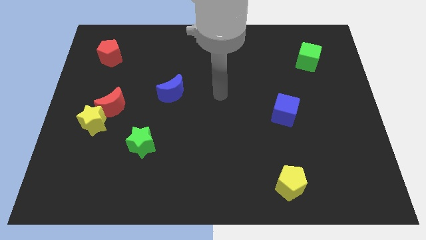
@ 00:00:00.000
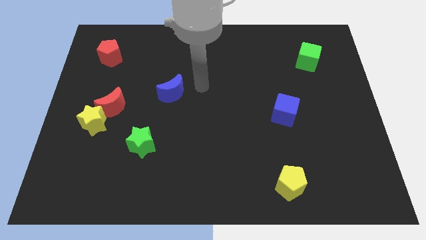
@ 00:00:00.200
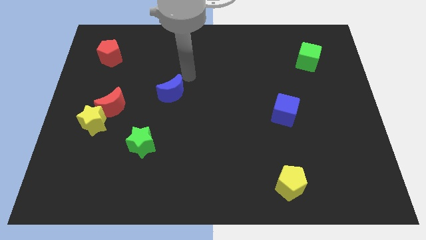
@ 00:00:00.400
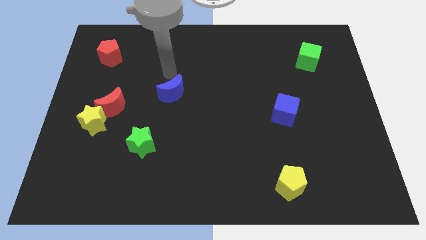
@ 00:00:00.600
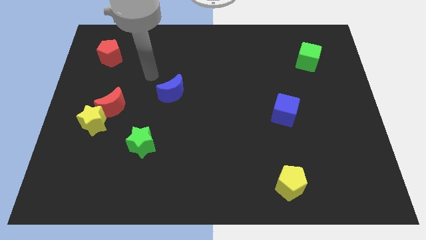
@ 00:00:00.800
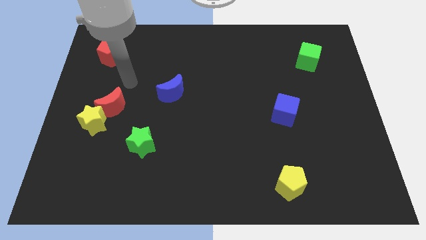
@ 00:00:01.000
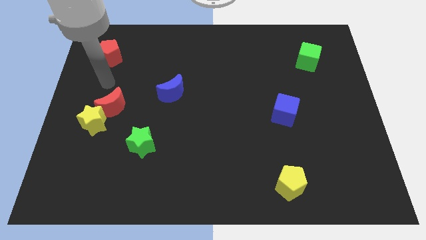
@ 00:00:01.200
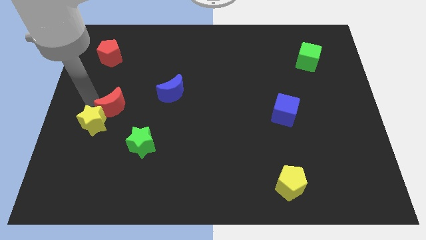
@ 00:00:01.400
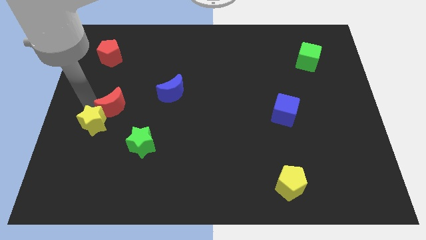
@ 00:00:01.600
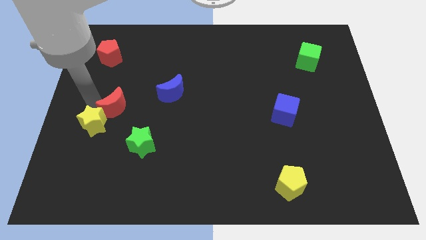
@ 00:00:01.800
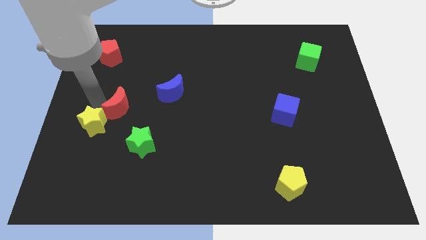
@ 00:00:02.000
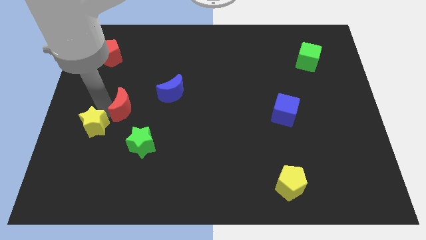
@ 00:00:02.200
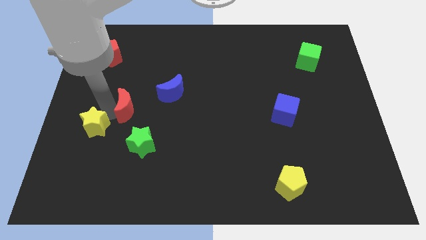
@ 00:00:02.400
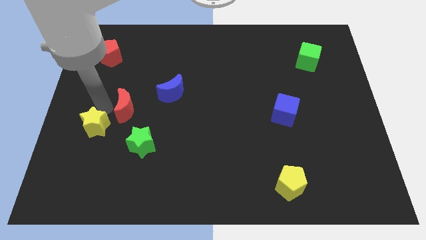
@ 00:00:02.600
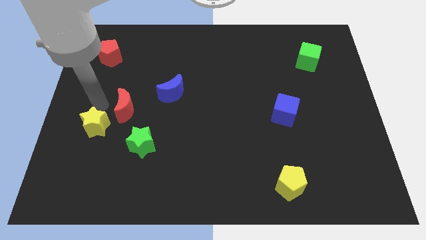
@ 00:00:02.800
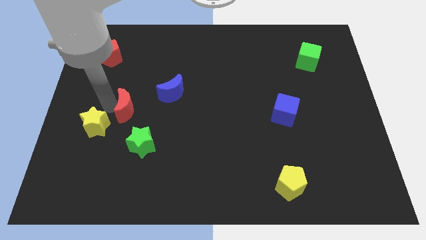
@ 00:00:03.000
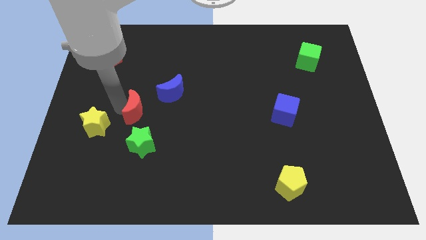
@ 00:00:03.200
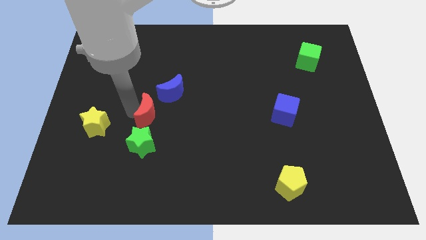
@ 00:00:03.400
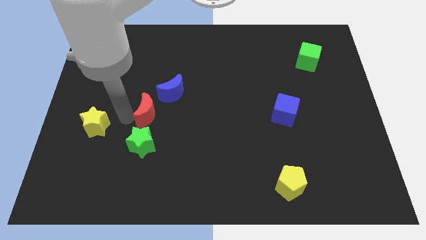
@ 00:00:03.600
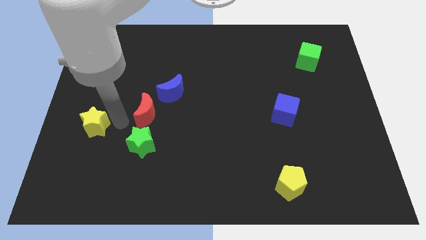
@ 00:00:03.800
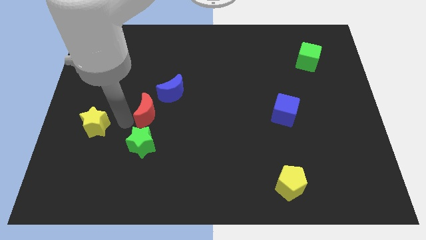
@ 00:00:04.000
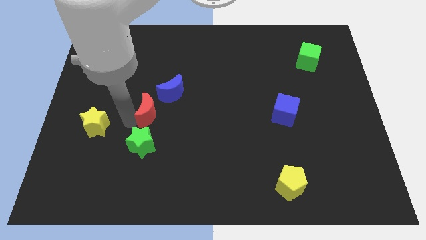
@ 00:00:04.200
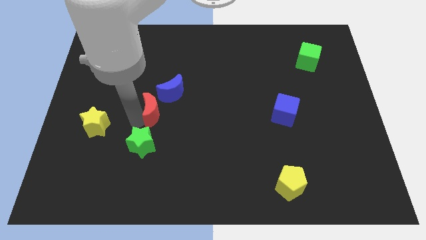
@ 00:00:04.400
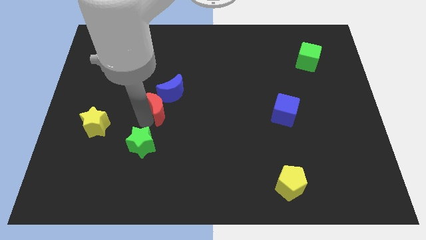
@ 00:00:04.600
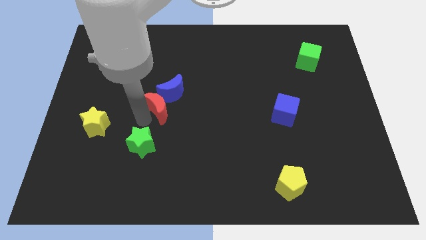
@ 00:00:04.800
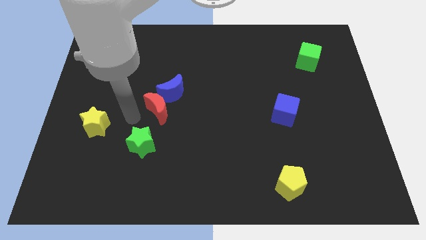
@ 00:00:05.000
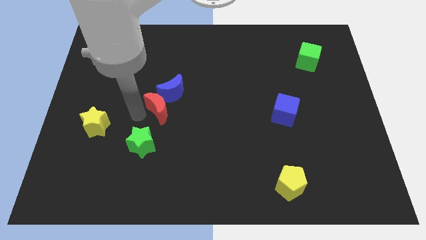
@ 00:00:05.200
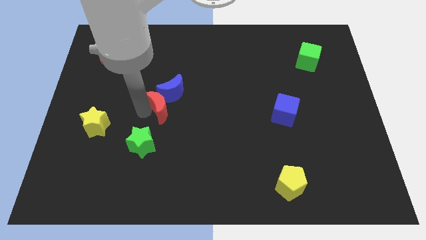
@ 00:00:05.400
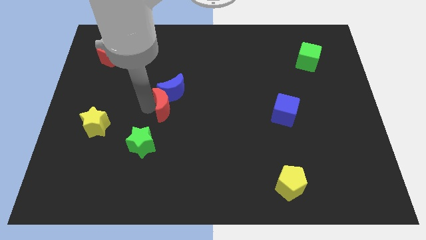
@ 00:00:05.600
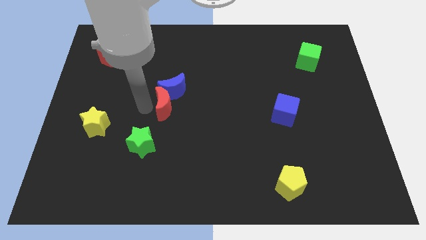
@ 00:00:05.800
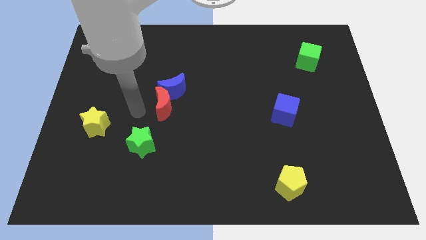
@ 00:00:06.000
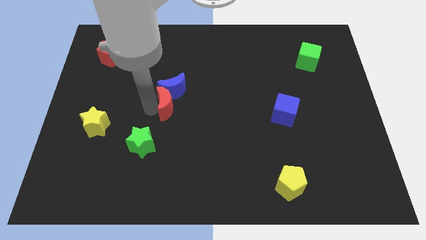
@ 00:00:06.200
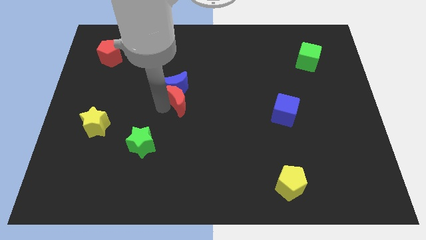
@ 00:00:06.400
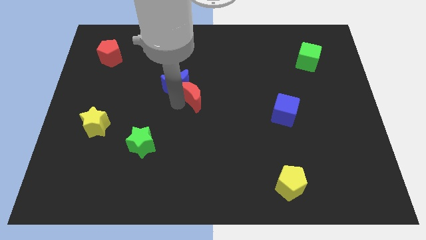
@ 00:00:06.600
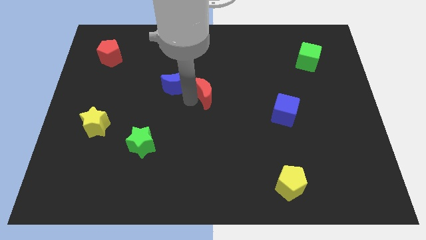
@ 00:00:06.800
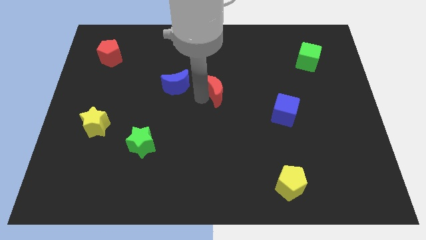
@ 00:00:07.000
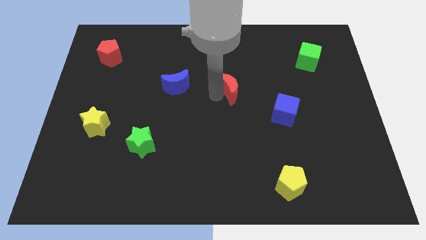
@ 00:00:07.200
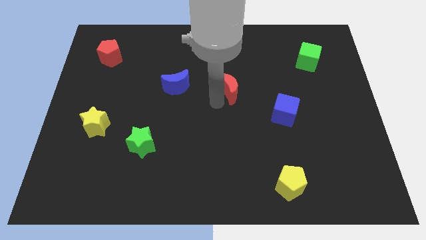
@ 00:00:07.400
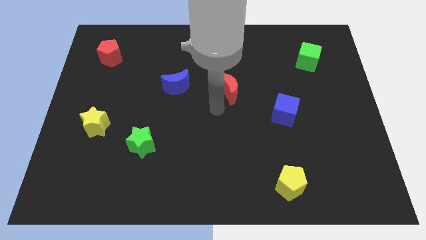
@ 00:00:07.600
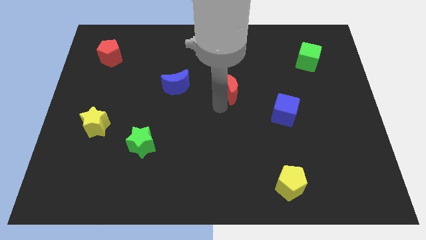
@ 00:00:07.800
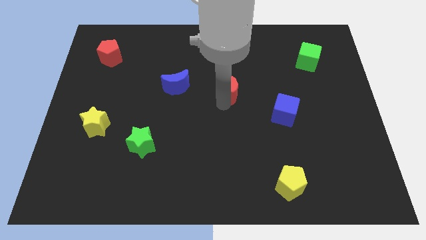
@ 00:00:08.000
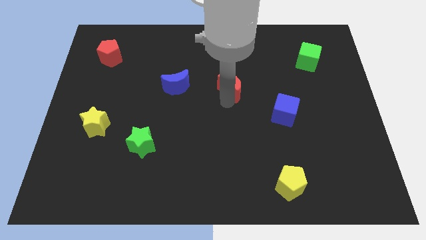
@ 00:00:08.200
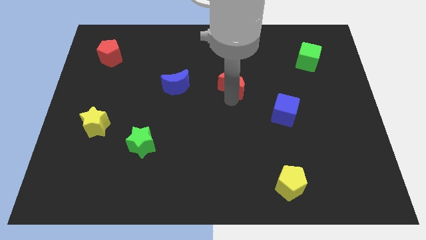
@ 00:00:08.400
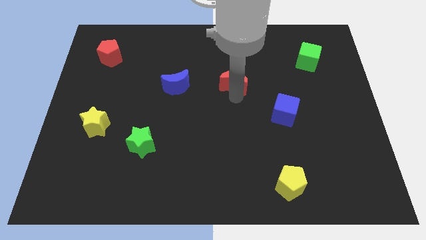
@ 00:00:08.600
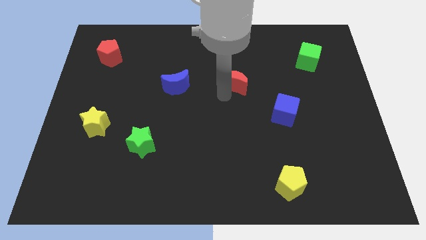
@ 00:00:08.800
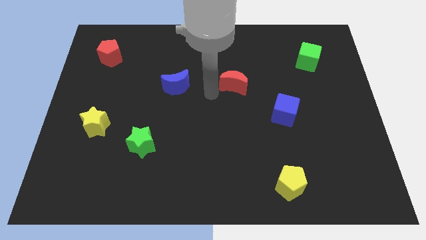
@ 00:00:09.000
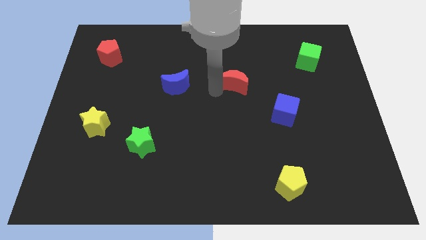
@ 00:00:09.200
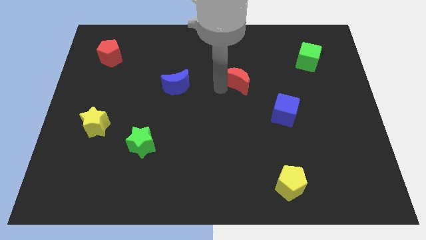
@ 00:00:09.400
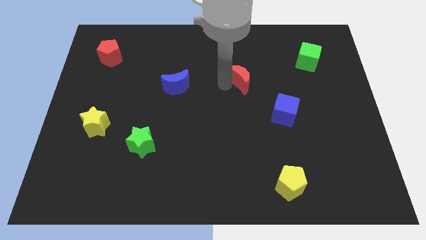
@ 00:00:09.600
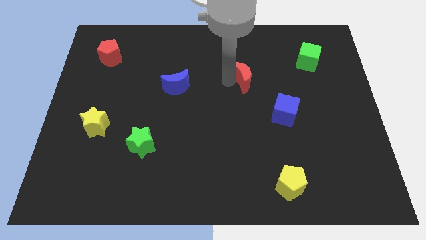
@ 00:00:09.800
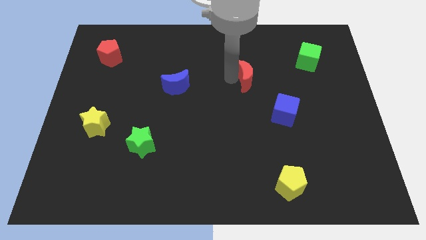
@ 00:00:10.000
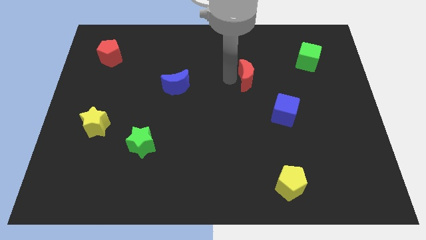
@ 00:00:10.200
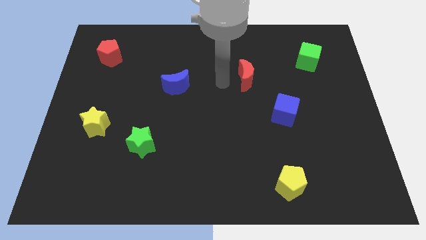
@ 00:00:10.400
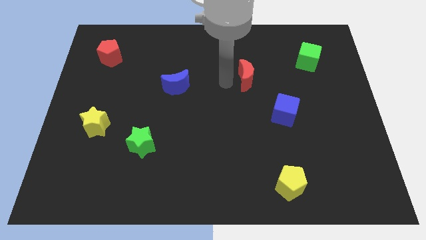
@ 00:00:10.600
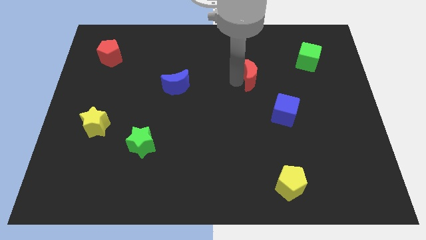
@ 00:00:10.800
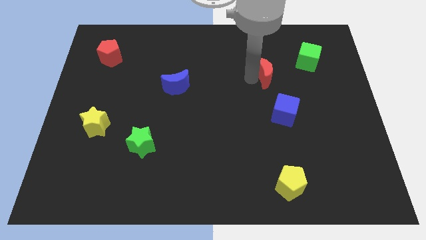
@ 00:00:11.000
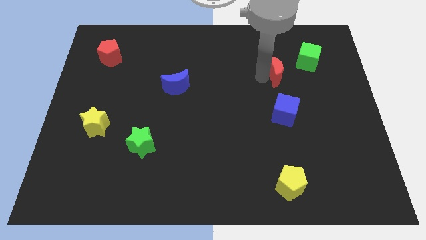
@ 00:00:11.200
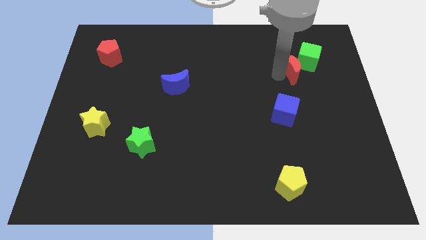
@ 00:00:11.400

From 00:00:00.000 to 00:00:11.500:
push the red moon towards the green cube

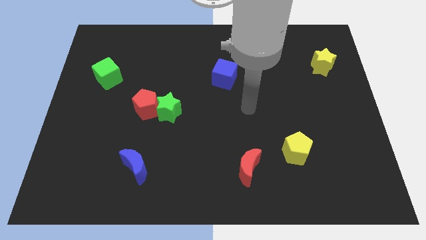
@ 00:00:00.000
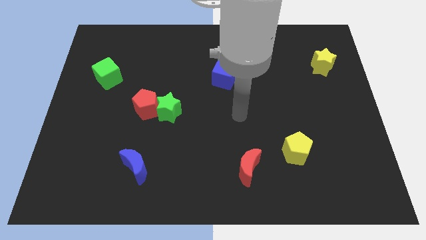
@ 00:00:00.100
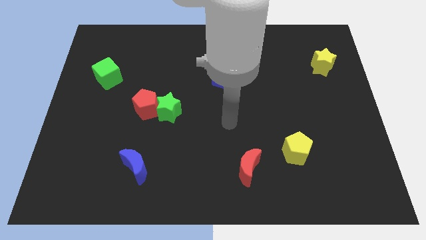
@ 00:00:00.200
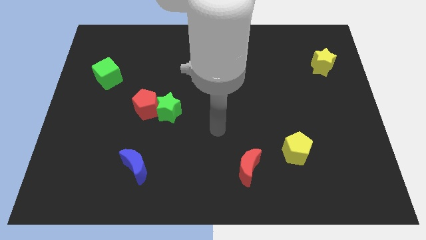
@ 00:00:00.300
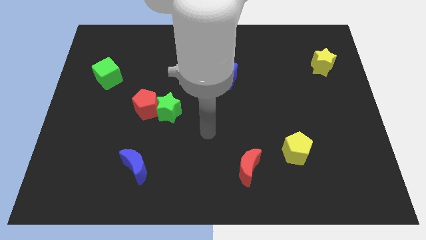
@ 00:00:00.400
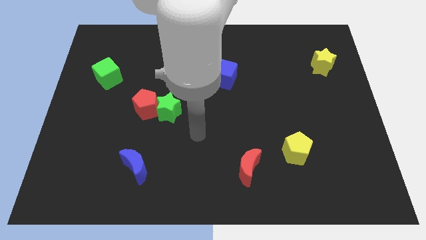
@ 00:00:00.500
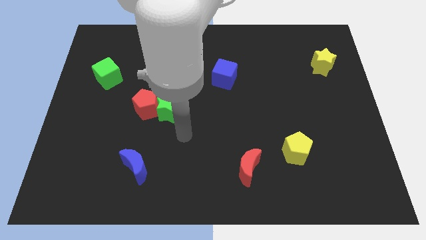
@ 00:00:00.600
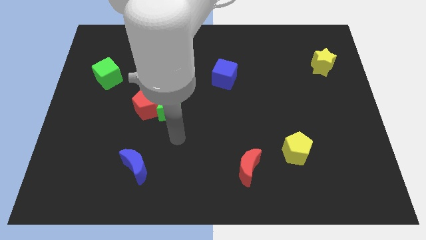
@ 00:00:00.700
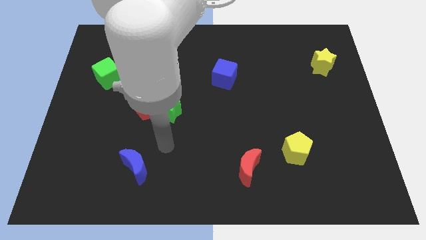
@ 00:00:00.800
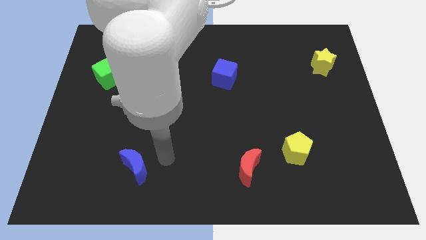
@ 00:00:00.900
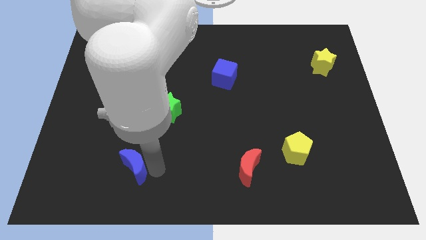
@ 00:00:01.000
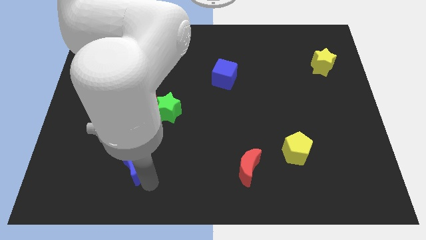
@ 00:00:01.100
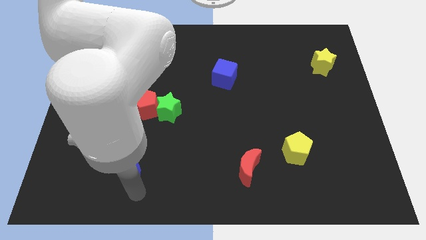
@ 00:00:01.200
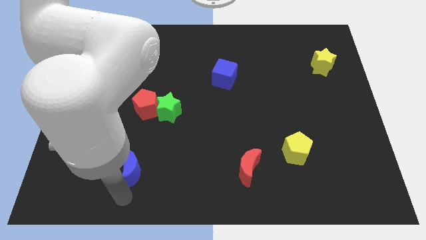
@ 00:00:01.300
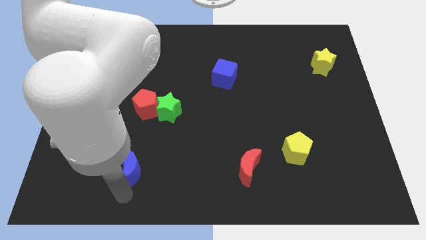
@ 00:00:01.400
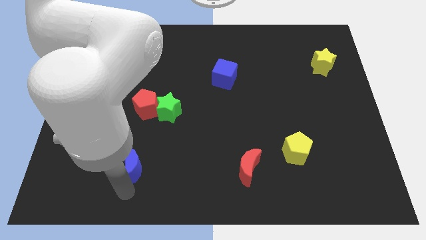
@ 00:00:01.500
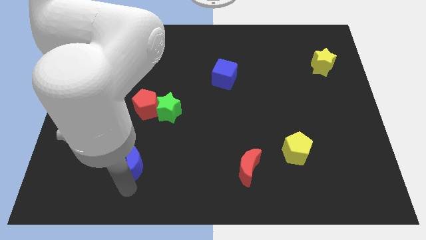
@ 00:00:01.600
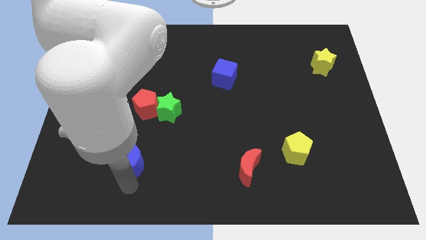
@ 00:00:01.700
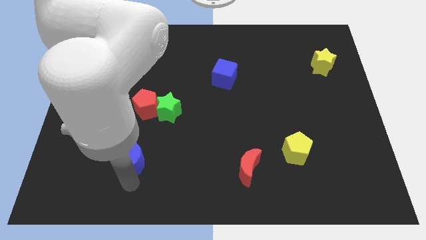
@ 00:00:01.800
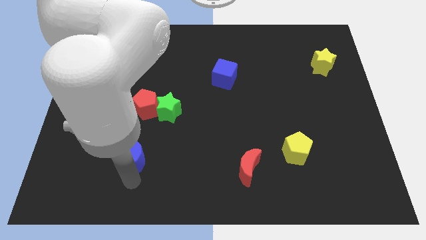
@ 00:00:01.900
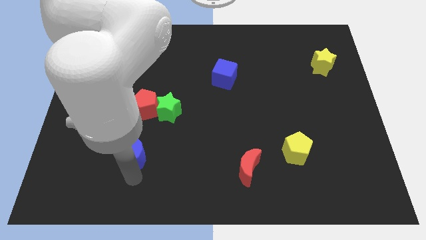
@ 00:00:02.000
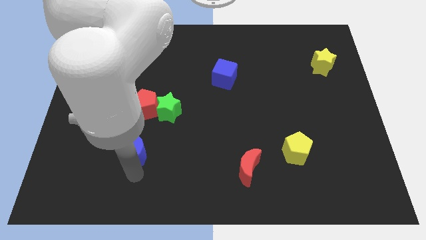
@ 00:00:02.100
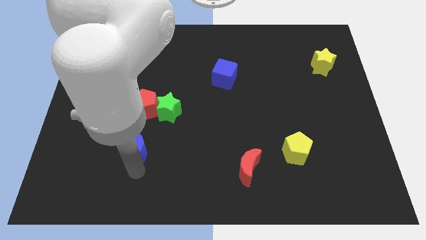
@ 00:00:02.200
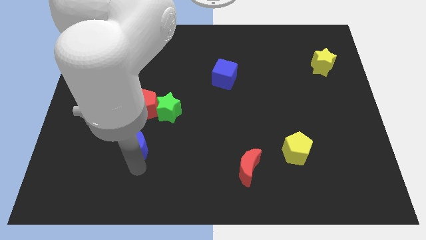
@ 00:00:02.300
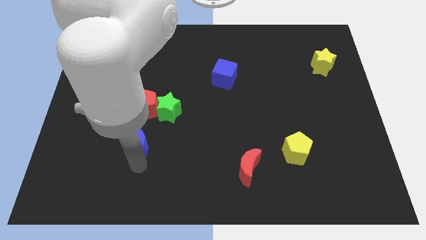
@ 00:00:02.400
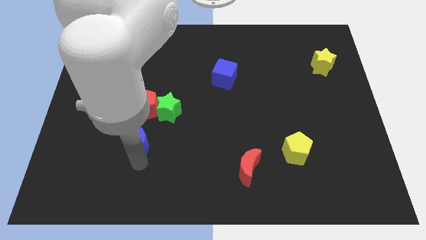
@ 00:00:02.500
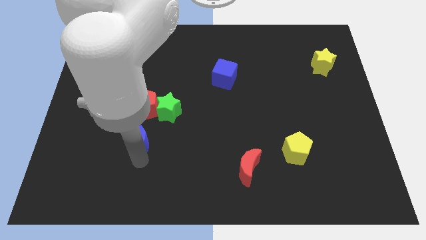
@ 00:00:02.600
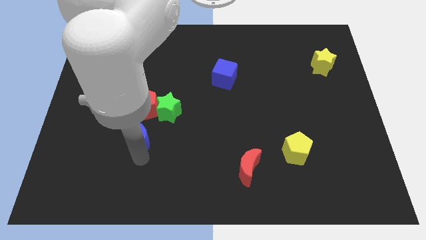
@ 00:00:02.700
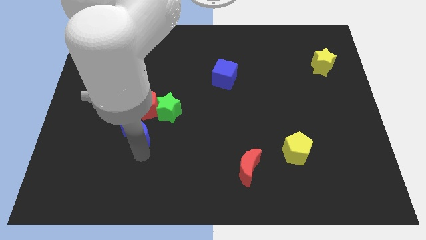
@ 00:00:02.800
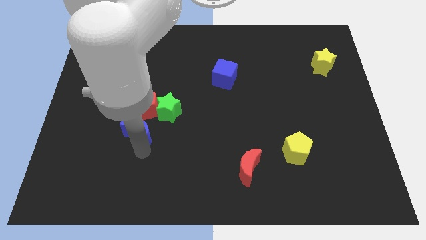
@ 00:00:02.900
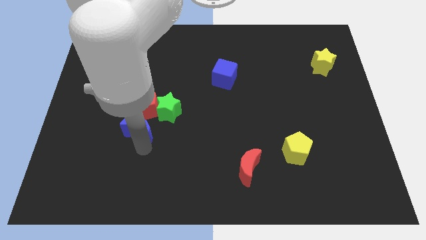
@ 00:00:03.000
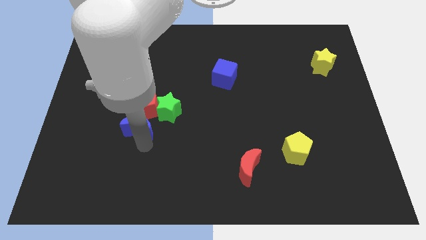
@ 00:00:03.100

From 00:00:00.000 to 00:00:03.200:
push the blue moon next to the red pentagon
